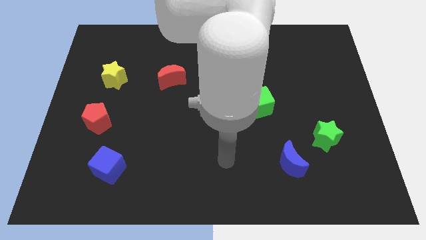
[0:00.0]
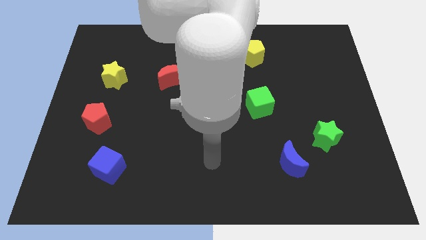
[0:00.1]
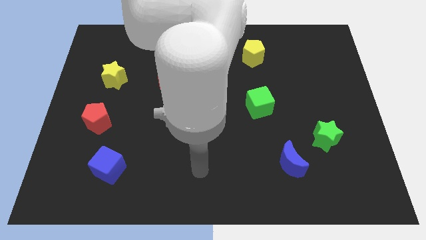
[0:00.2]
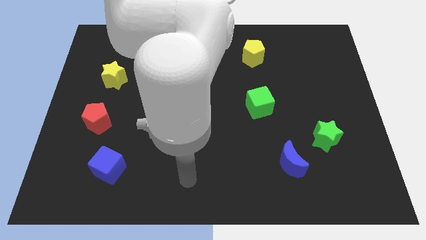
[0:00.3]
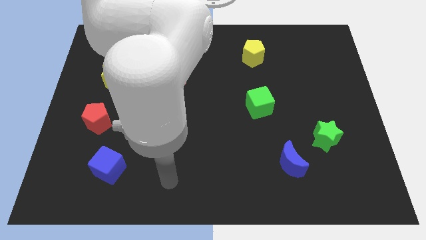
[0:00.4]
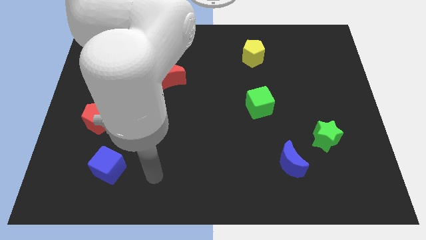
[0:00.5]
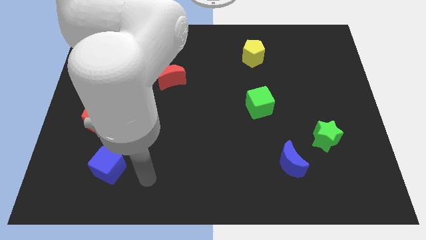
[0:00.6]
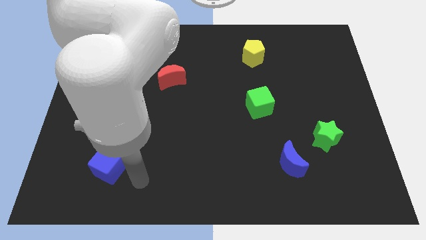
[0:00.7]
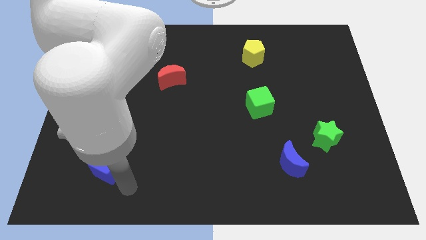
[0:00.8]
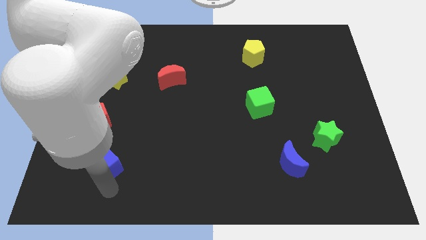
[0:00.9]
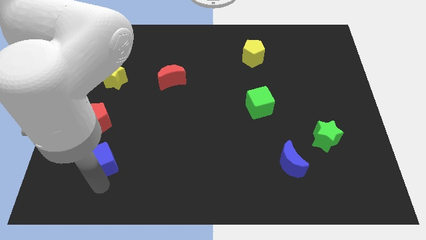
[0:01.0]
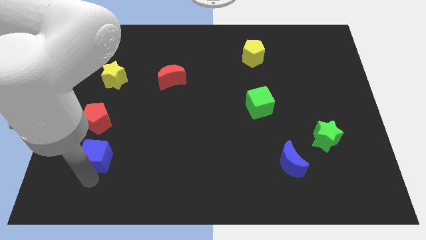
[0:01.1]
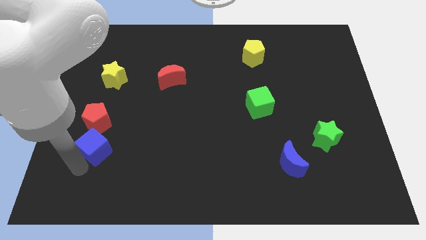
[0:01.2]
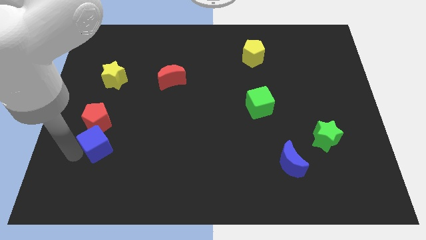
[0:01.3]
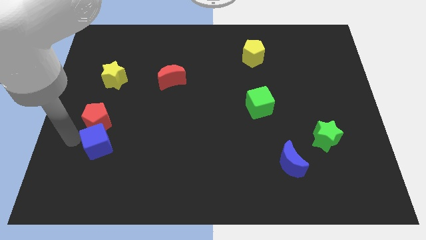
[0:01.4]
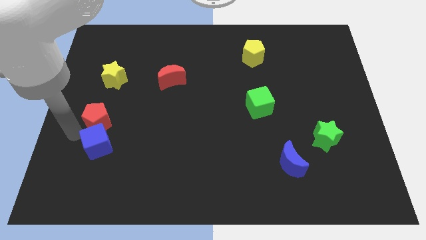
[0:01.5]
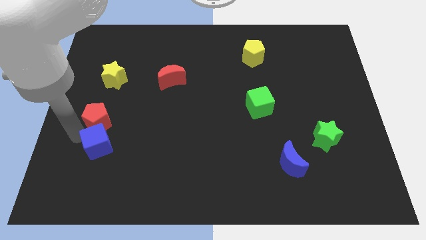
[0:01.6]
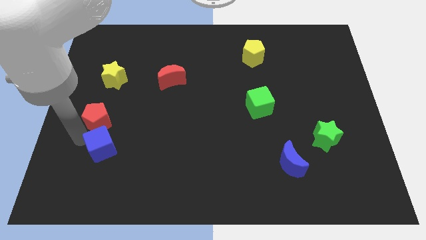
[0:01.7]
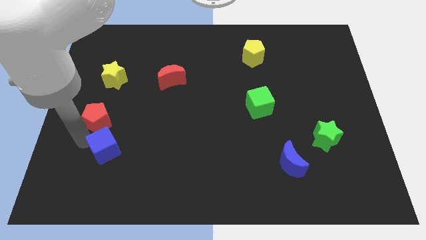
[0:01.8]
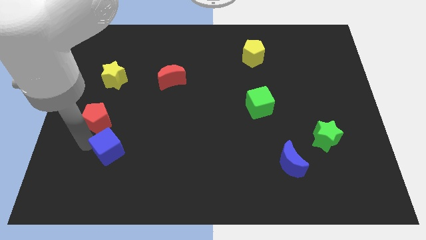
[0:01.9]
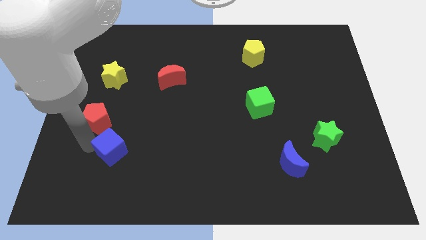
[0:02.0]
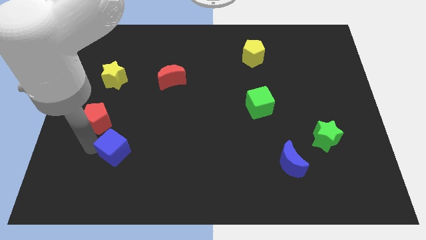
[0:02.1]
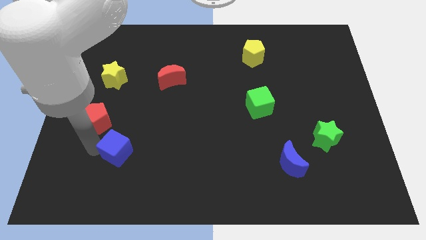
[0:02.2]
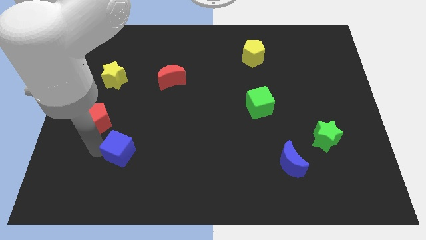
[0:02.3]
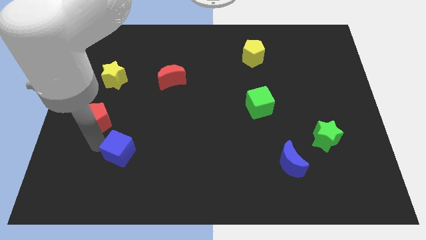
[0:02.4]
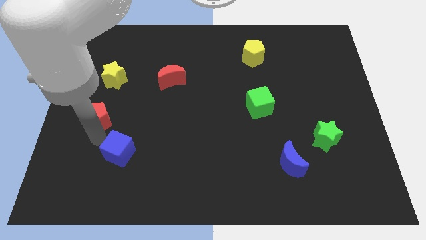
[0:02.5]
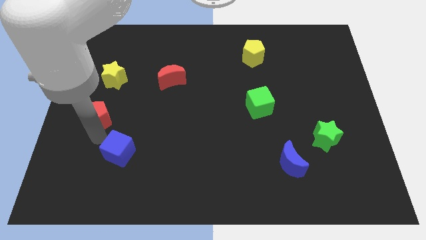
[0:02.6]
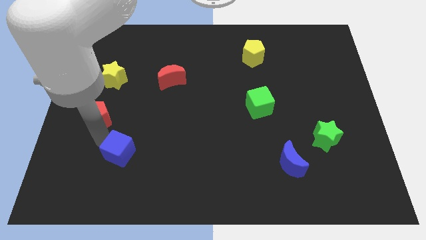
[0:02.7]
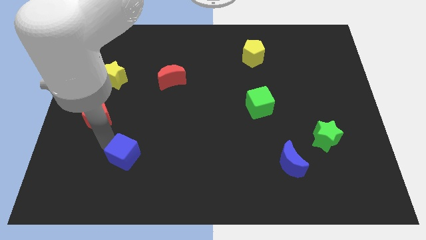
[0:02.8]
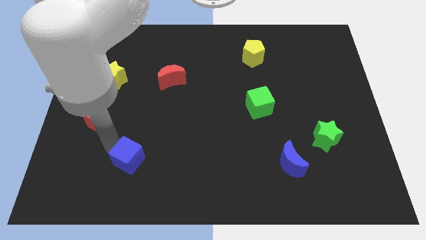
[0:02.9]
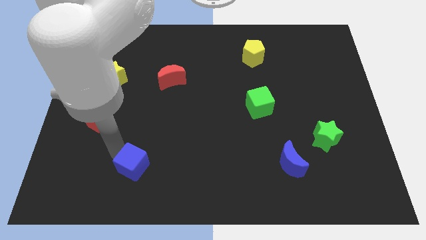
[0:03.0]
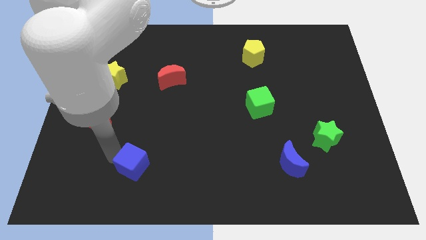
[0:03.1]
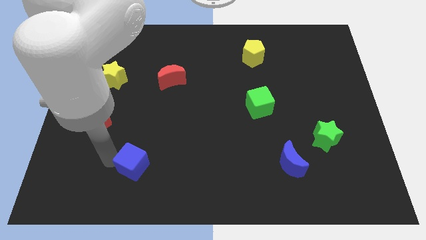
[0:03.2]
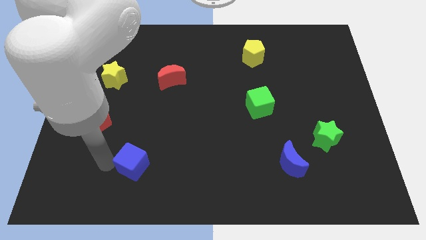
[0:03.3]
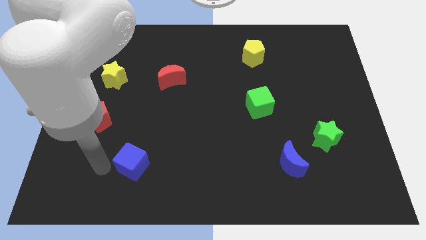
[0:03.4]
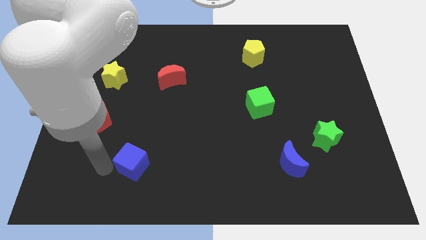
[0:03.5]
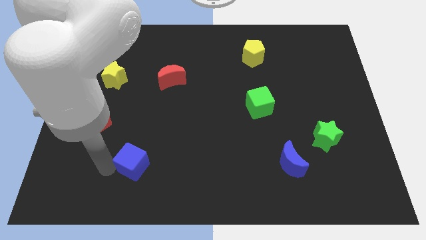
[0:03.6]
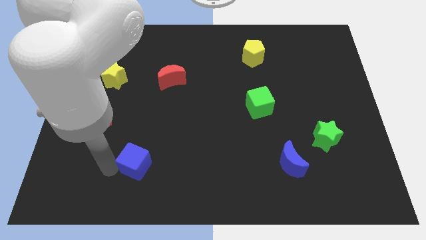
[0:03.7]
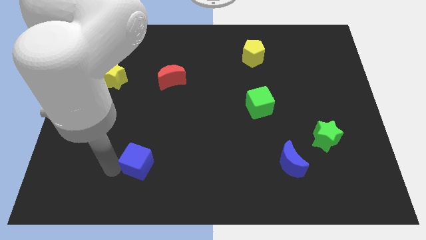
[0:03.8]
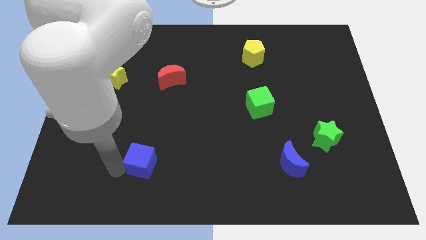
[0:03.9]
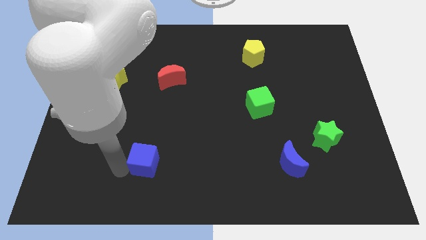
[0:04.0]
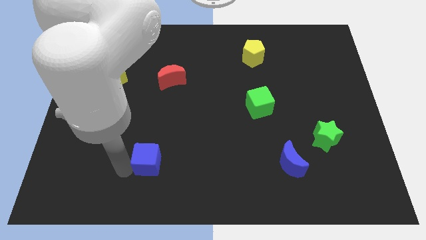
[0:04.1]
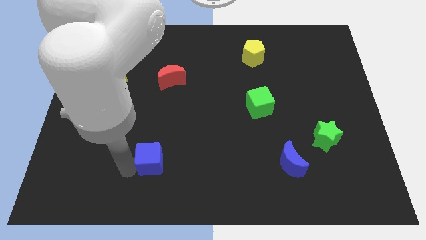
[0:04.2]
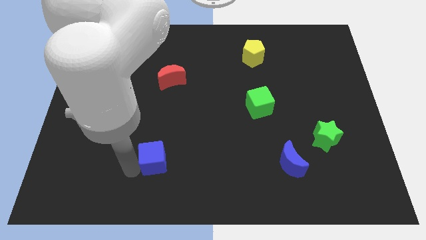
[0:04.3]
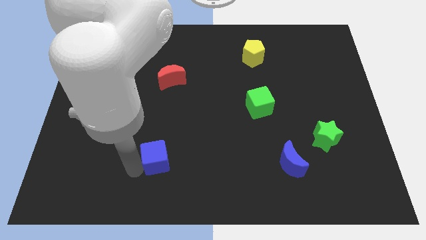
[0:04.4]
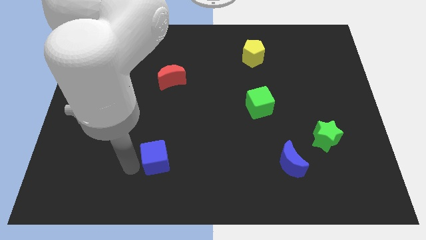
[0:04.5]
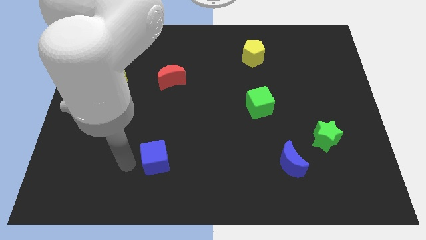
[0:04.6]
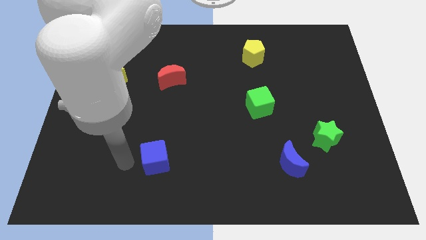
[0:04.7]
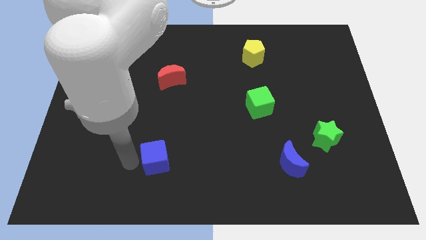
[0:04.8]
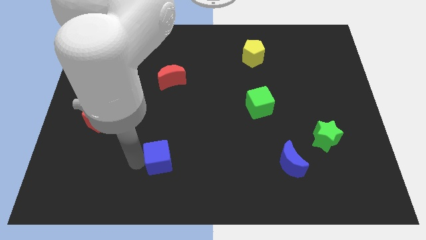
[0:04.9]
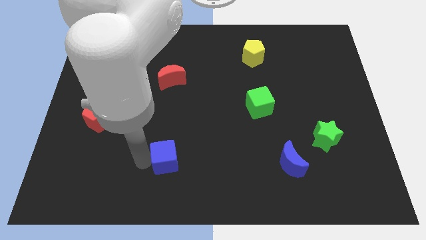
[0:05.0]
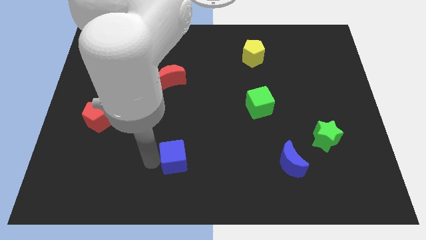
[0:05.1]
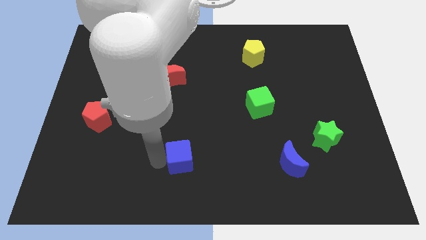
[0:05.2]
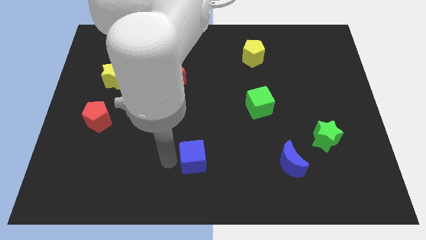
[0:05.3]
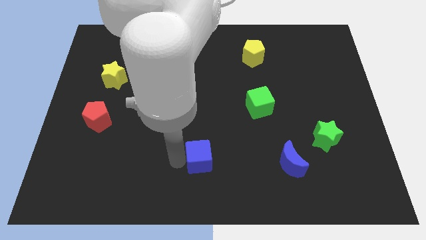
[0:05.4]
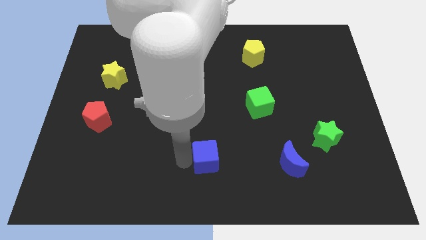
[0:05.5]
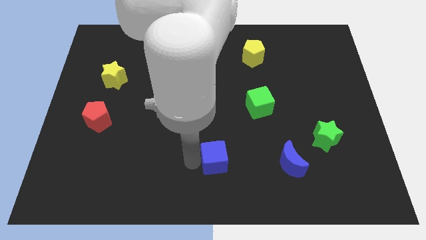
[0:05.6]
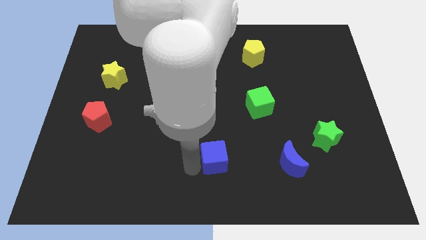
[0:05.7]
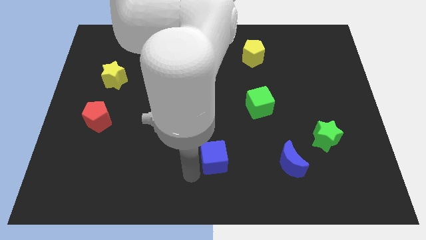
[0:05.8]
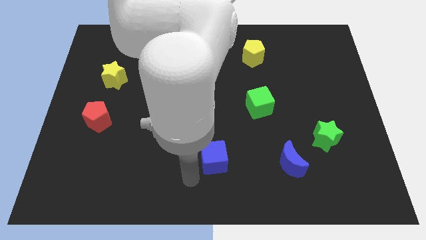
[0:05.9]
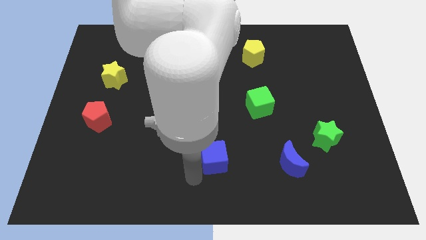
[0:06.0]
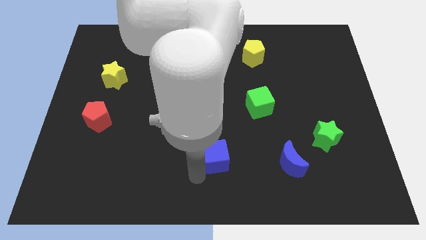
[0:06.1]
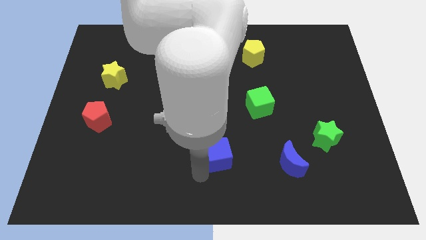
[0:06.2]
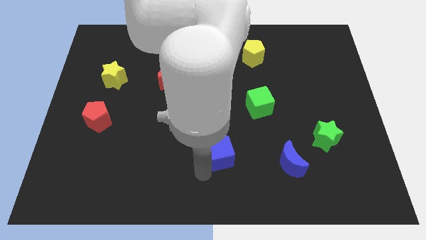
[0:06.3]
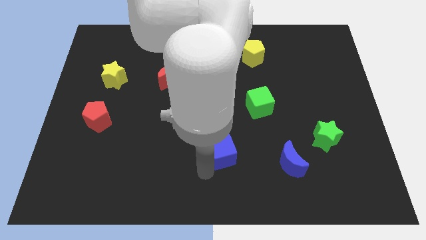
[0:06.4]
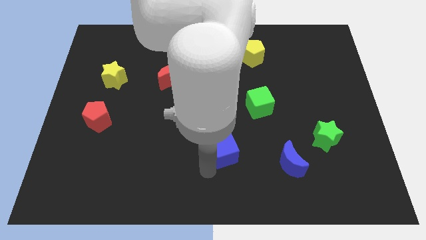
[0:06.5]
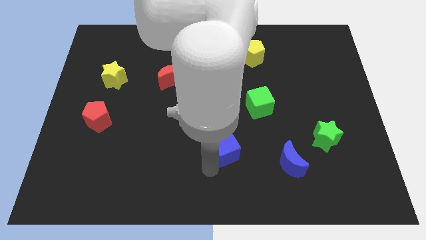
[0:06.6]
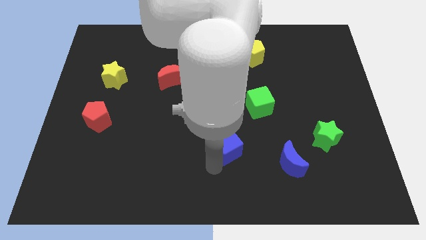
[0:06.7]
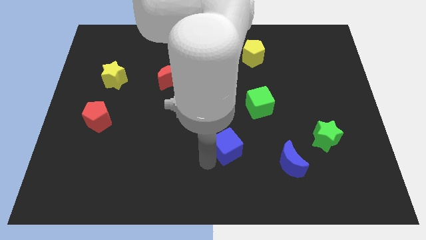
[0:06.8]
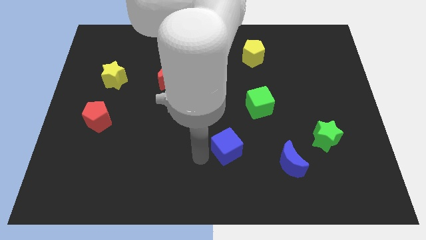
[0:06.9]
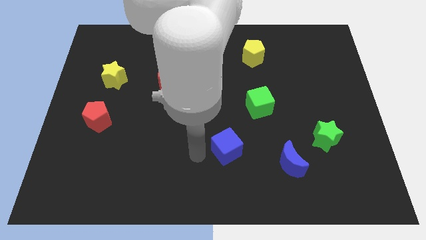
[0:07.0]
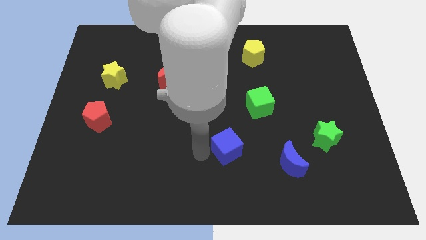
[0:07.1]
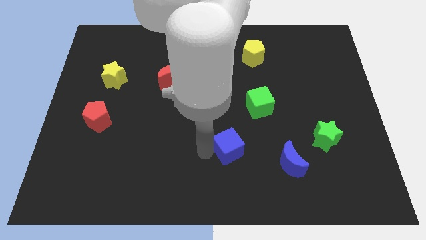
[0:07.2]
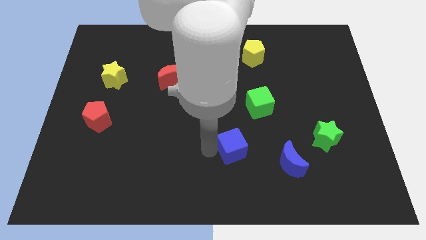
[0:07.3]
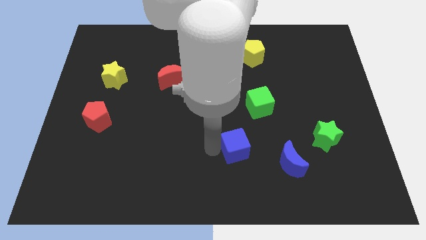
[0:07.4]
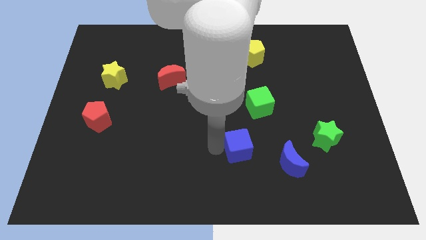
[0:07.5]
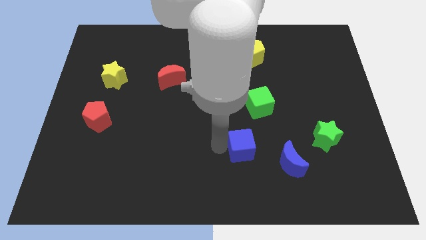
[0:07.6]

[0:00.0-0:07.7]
push the blue cube to the bottom of the green cube
